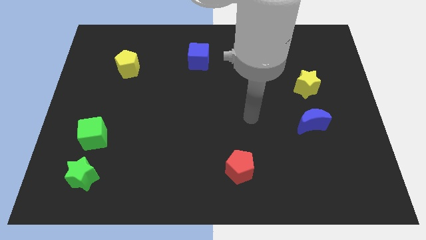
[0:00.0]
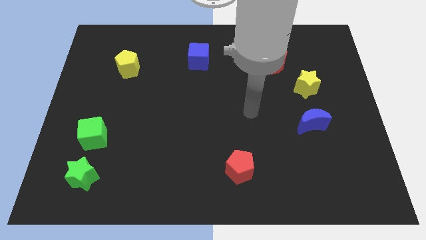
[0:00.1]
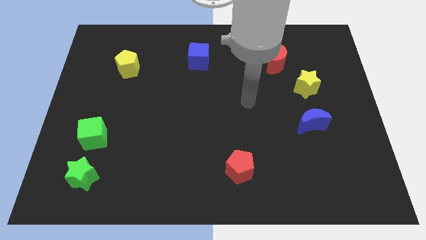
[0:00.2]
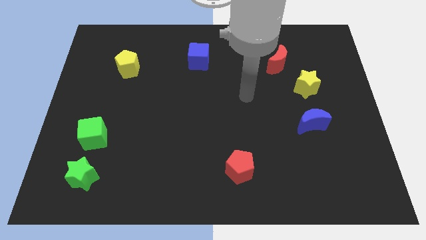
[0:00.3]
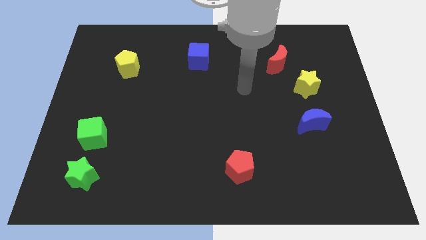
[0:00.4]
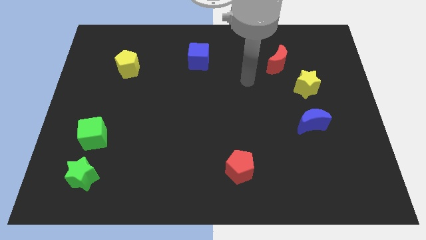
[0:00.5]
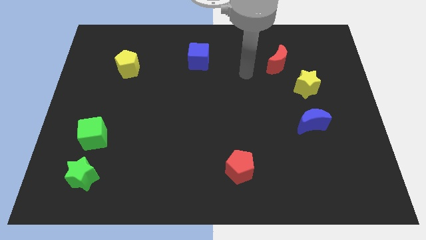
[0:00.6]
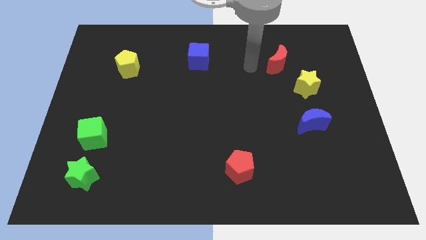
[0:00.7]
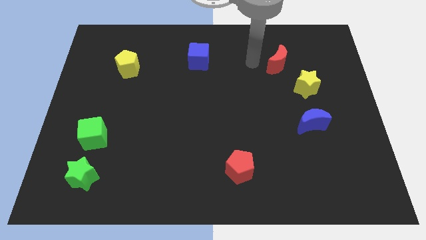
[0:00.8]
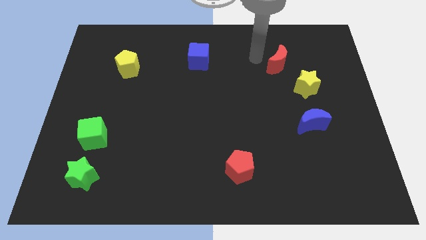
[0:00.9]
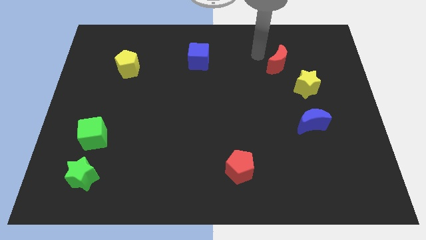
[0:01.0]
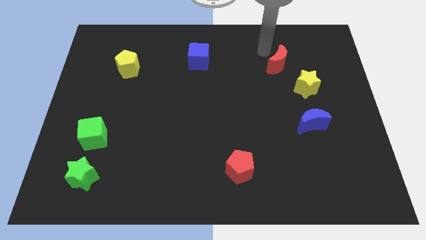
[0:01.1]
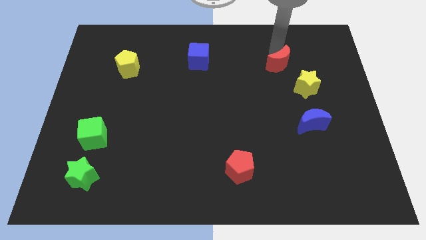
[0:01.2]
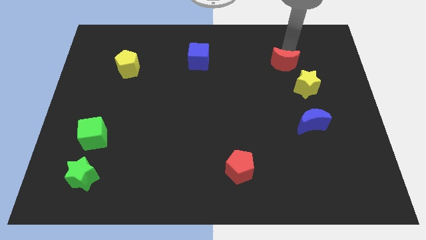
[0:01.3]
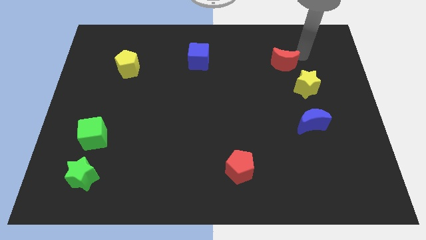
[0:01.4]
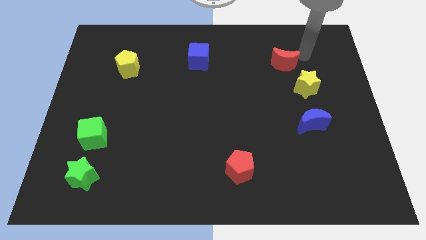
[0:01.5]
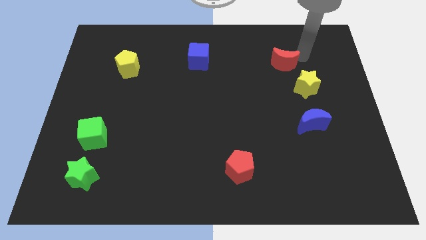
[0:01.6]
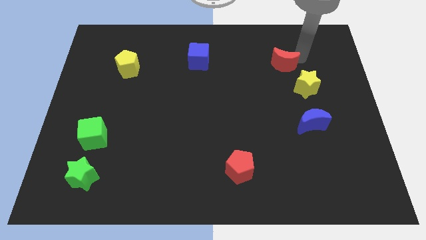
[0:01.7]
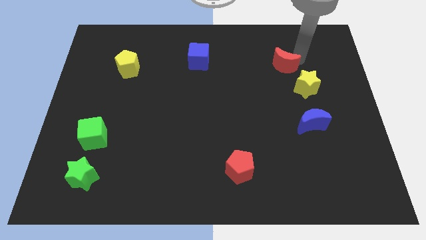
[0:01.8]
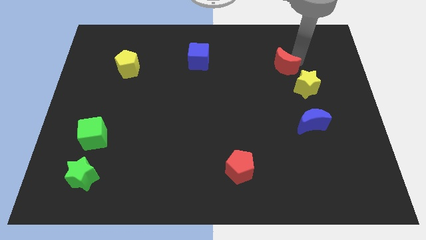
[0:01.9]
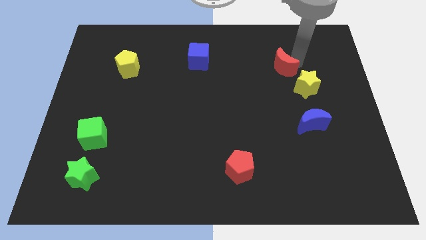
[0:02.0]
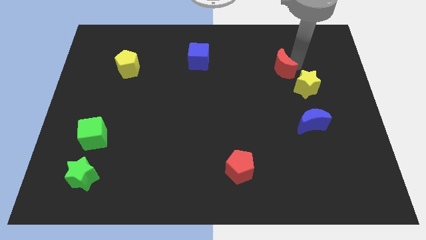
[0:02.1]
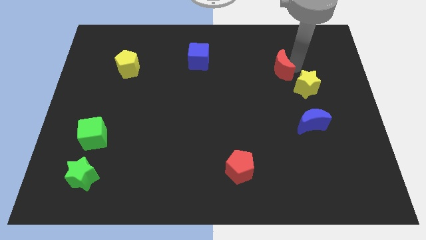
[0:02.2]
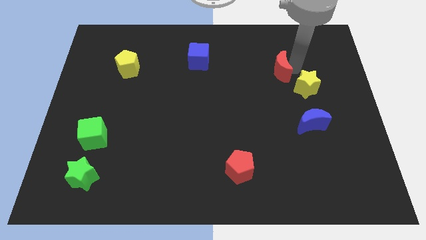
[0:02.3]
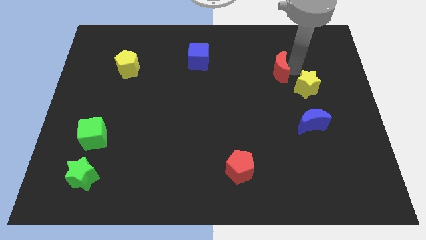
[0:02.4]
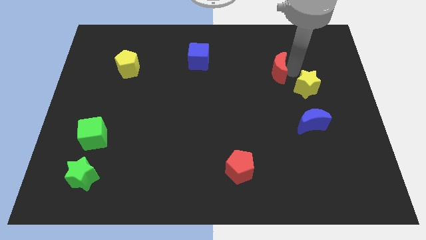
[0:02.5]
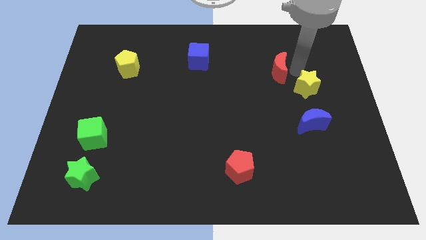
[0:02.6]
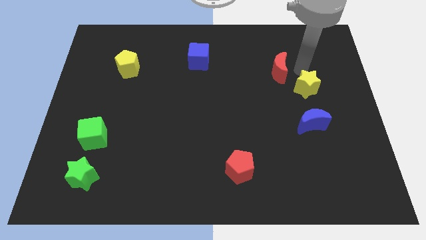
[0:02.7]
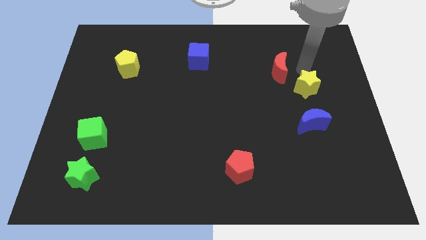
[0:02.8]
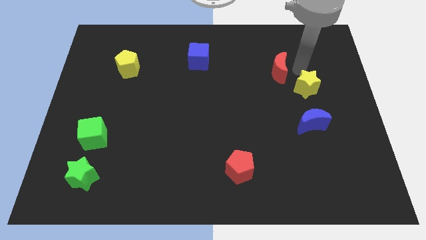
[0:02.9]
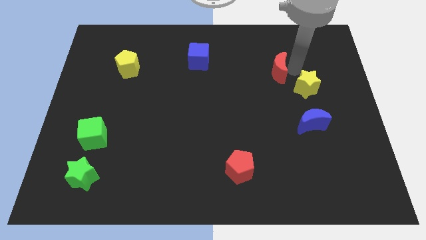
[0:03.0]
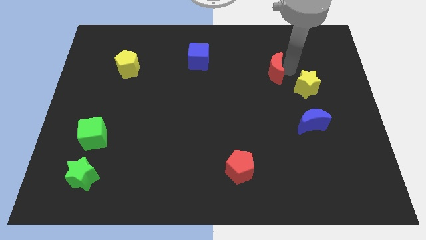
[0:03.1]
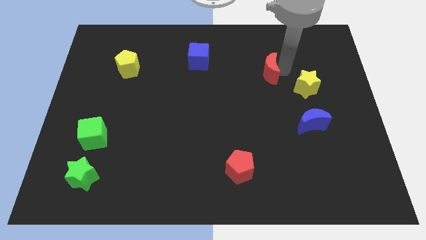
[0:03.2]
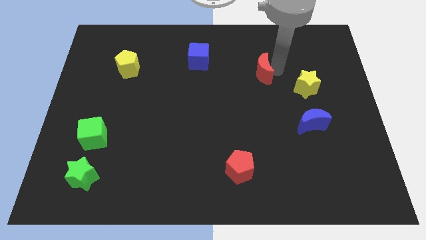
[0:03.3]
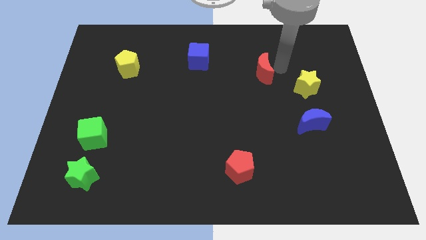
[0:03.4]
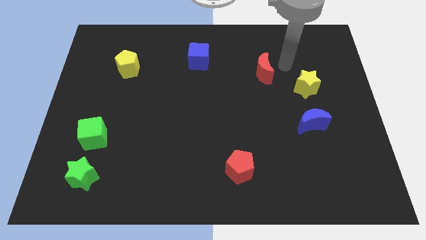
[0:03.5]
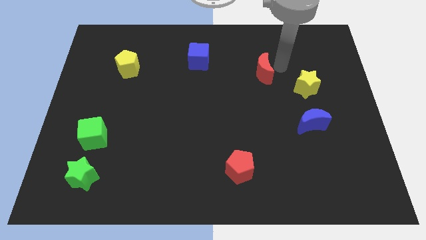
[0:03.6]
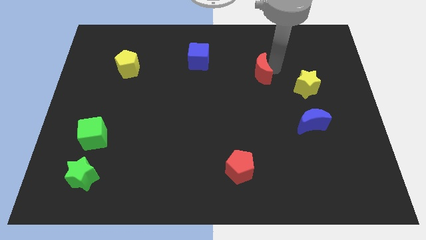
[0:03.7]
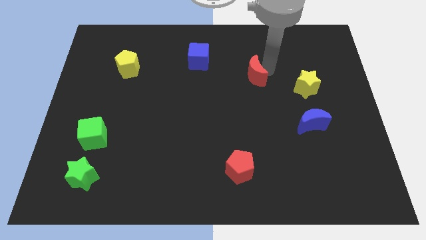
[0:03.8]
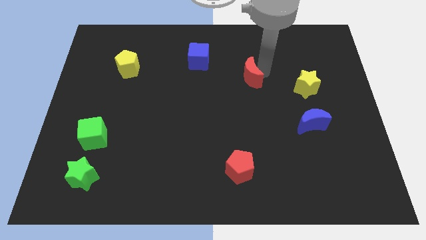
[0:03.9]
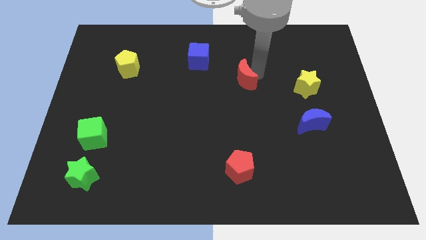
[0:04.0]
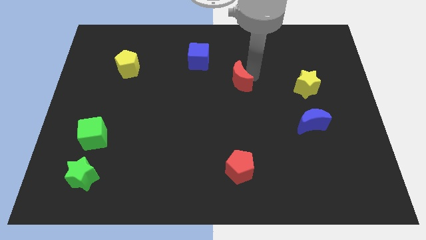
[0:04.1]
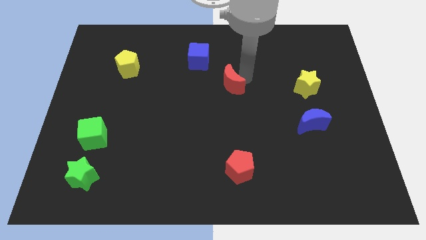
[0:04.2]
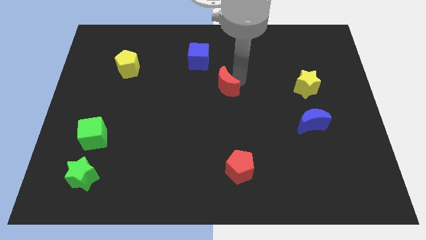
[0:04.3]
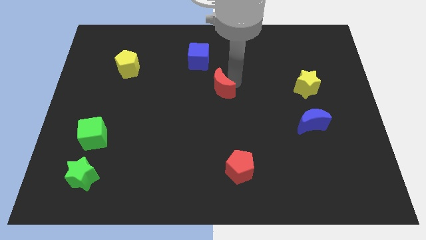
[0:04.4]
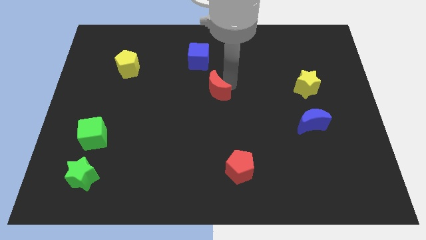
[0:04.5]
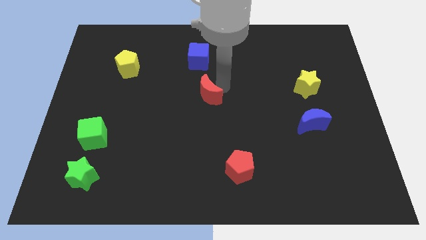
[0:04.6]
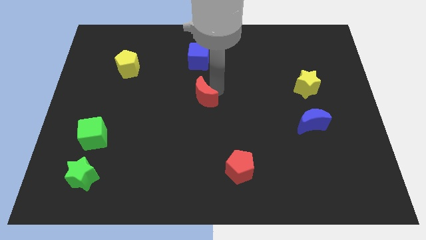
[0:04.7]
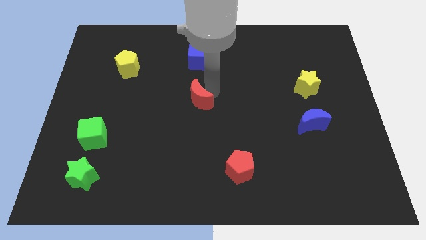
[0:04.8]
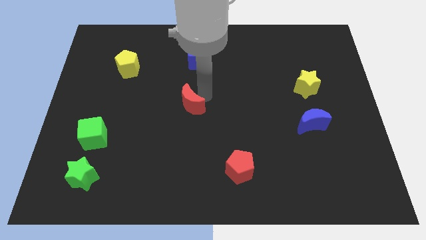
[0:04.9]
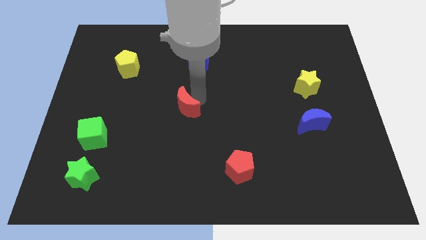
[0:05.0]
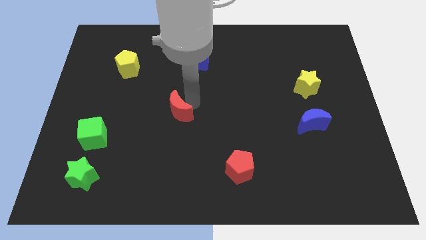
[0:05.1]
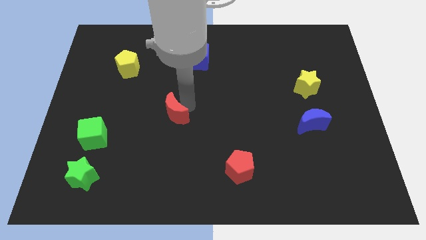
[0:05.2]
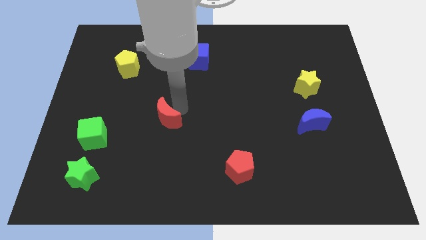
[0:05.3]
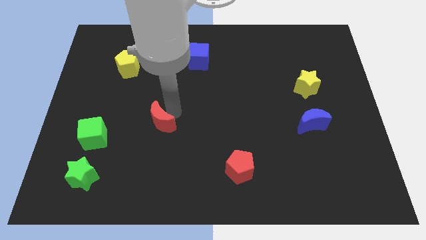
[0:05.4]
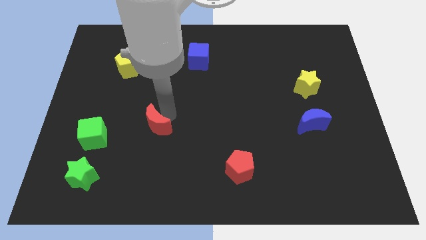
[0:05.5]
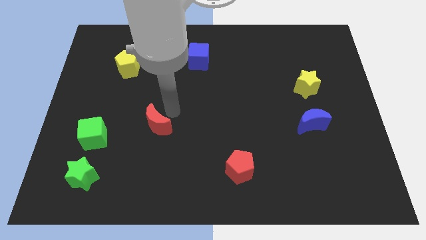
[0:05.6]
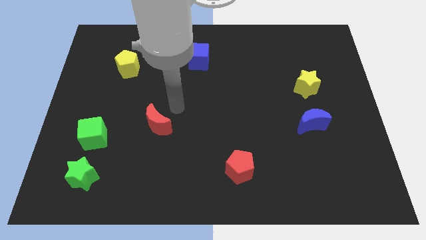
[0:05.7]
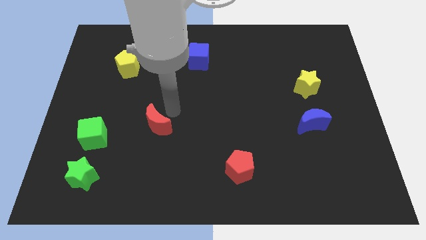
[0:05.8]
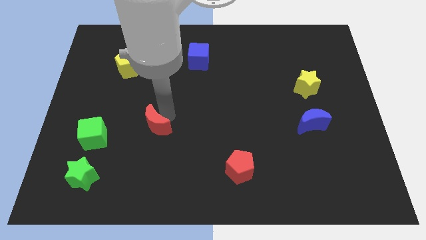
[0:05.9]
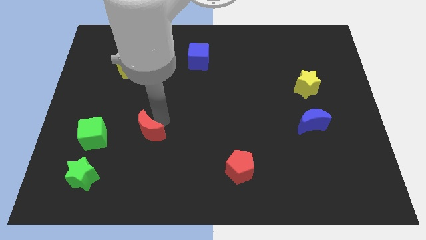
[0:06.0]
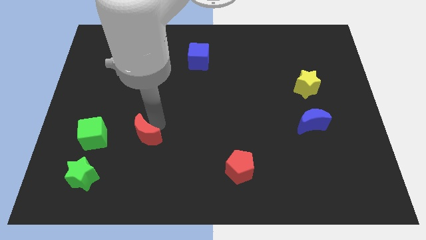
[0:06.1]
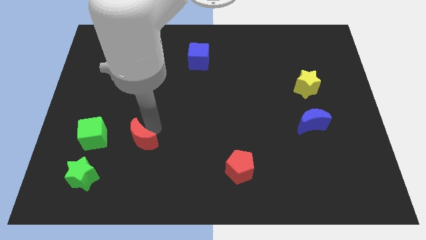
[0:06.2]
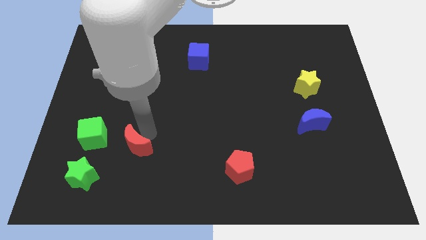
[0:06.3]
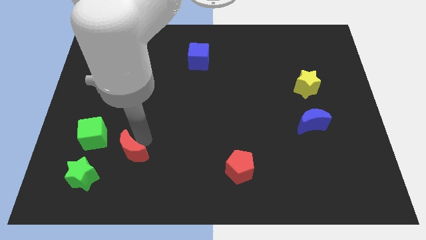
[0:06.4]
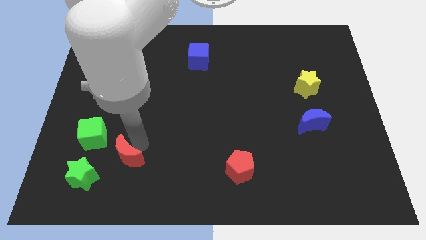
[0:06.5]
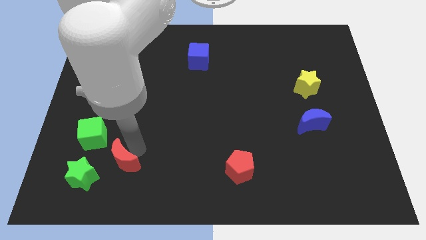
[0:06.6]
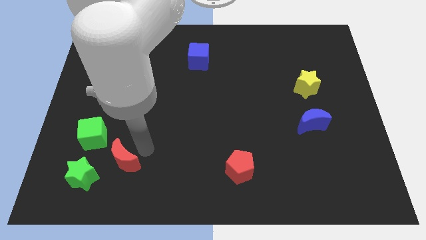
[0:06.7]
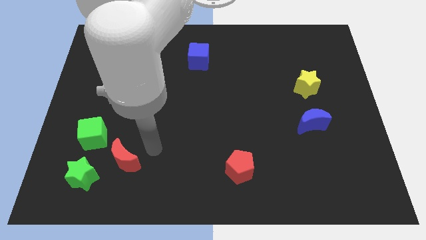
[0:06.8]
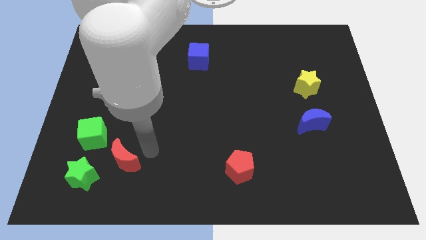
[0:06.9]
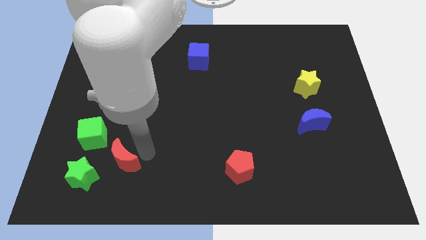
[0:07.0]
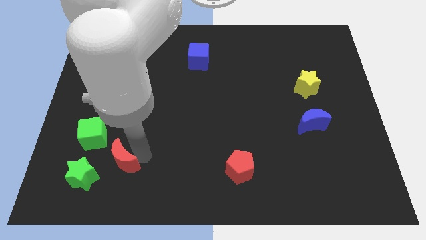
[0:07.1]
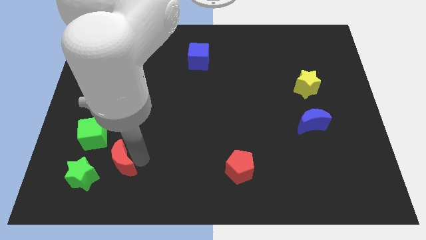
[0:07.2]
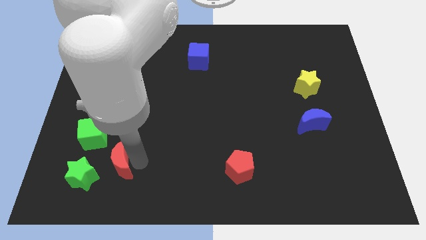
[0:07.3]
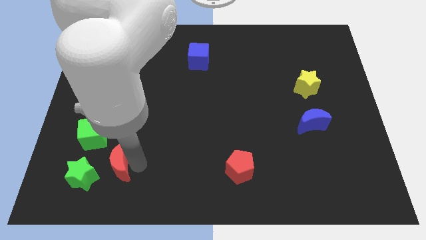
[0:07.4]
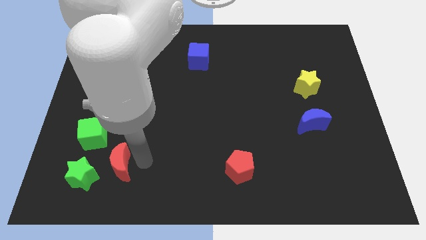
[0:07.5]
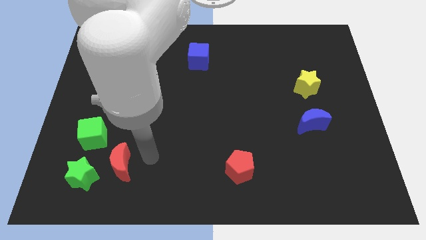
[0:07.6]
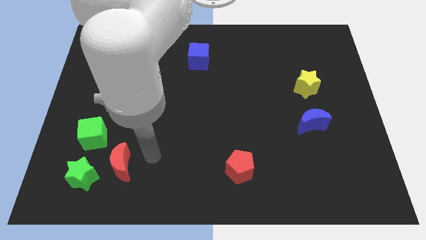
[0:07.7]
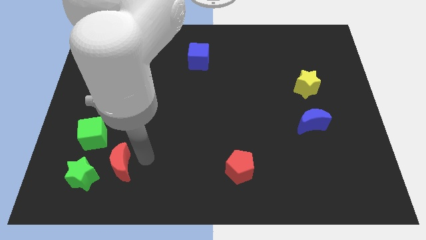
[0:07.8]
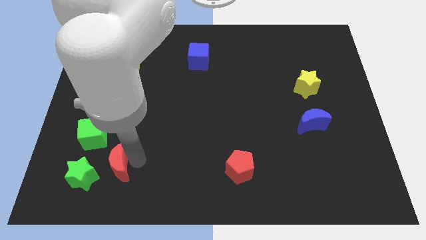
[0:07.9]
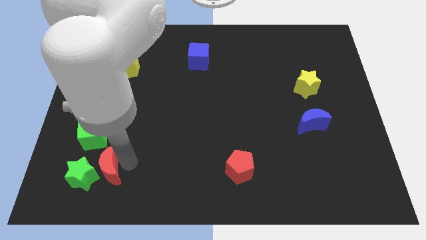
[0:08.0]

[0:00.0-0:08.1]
put the red moon towards the green star
